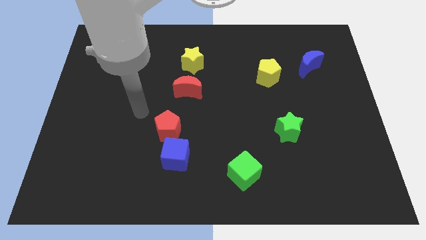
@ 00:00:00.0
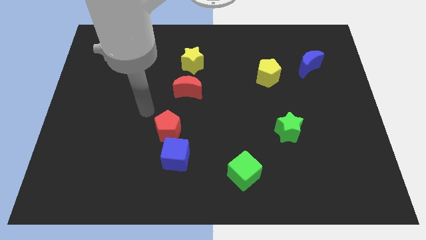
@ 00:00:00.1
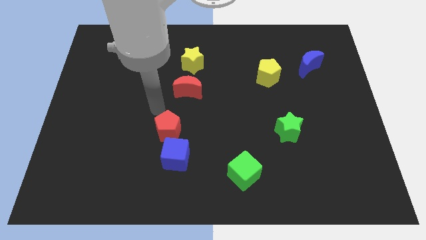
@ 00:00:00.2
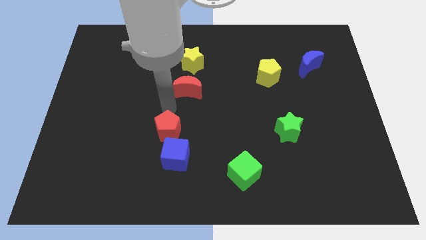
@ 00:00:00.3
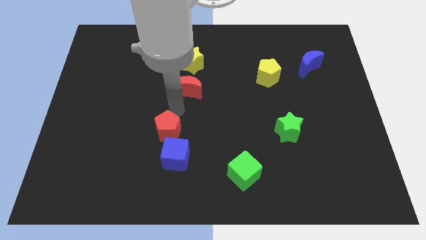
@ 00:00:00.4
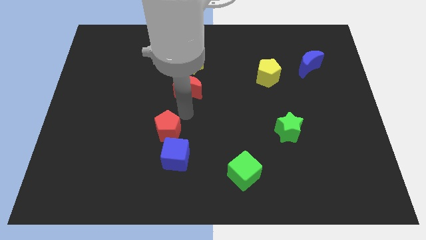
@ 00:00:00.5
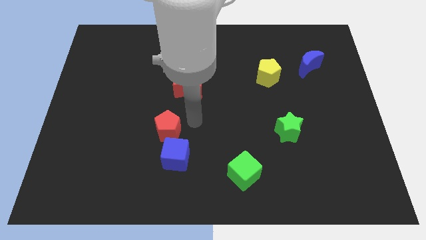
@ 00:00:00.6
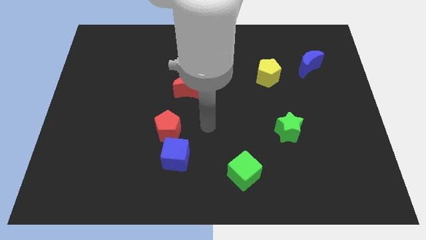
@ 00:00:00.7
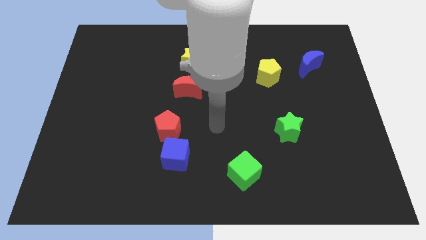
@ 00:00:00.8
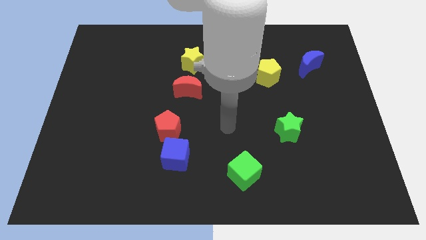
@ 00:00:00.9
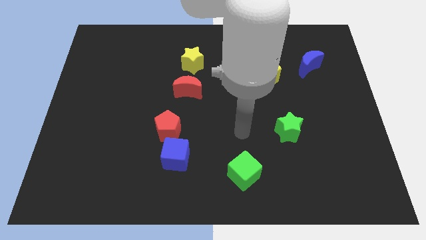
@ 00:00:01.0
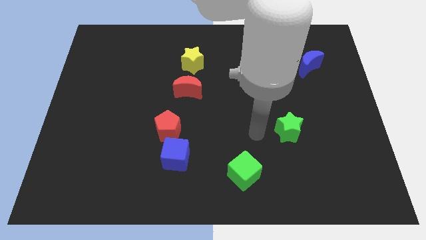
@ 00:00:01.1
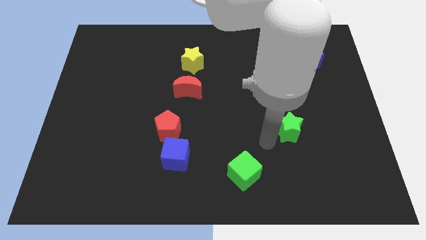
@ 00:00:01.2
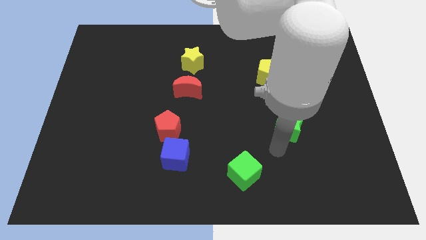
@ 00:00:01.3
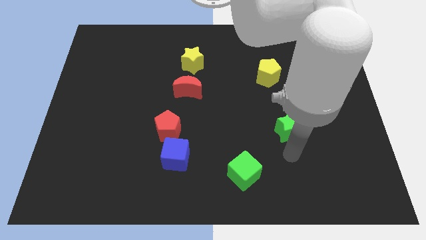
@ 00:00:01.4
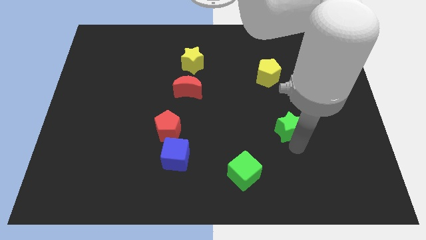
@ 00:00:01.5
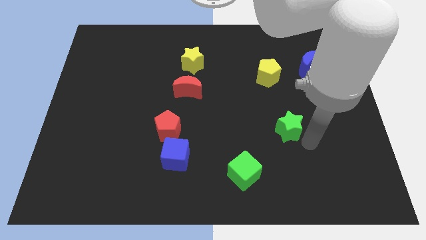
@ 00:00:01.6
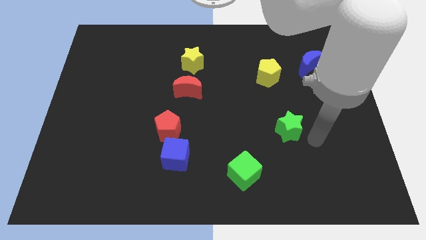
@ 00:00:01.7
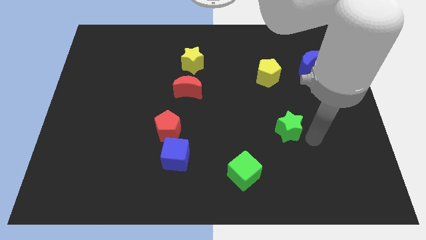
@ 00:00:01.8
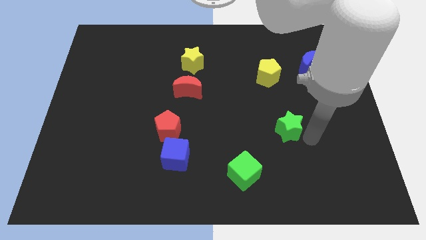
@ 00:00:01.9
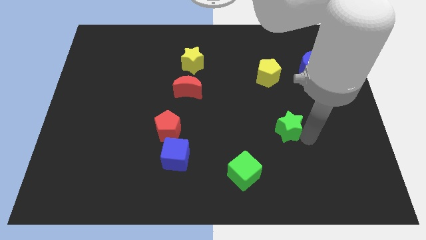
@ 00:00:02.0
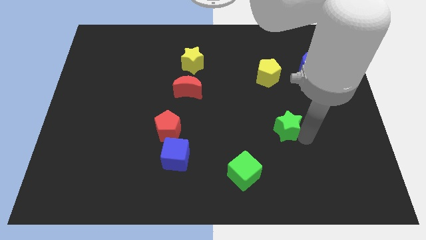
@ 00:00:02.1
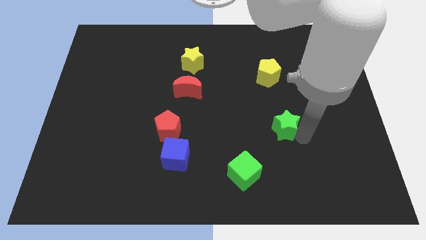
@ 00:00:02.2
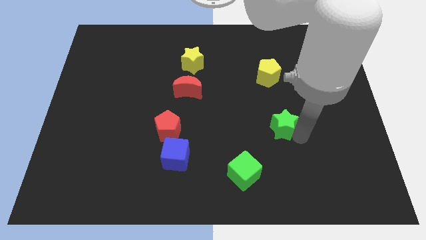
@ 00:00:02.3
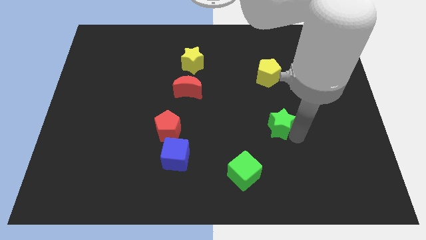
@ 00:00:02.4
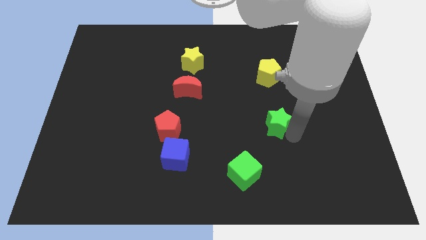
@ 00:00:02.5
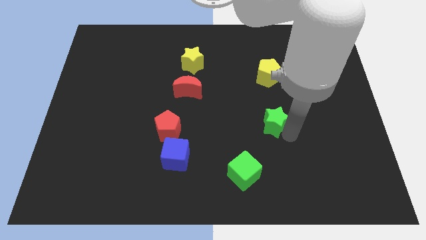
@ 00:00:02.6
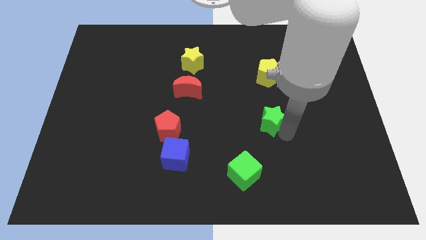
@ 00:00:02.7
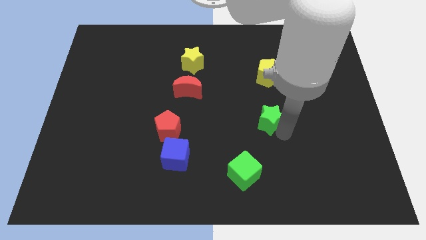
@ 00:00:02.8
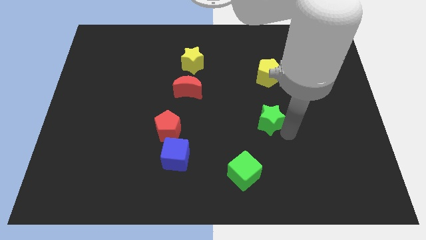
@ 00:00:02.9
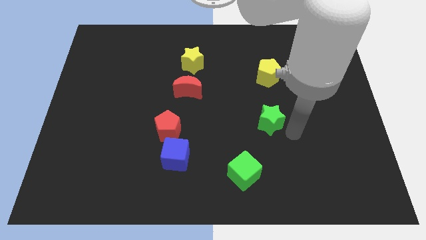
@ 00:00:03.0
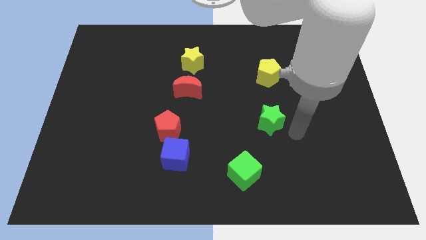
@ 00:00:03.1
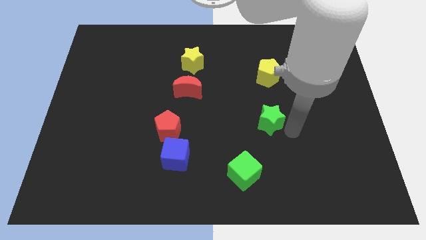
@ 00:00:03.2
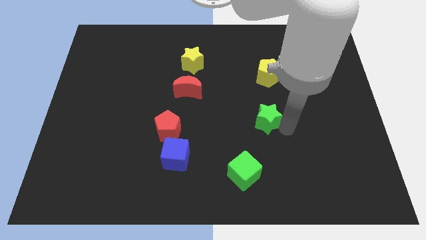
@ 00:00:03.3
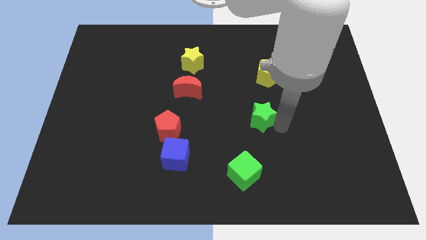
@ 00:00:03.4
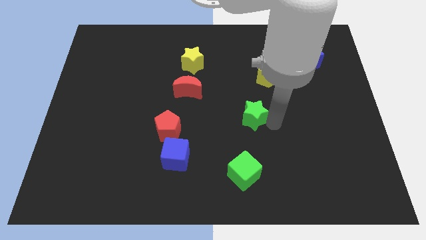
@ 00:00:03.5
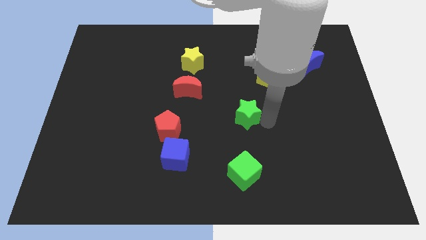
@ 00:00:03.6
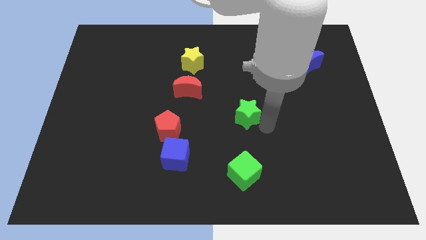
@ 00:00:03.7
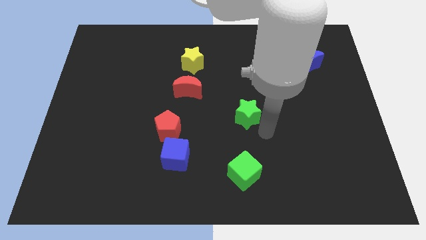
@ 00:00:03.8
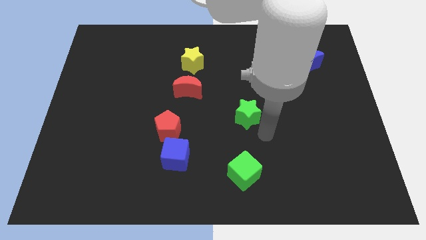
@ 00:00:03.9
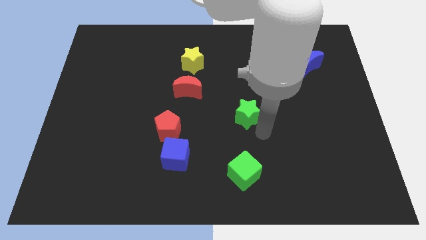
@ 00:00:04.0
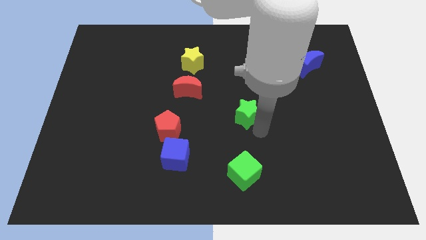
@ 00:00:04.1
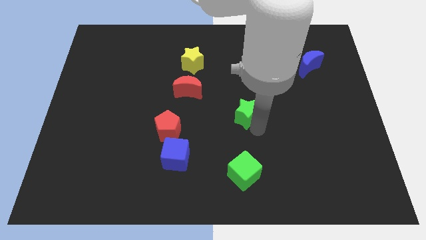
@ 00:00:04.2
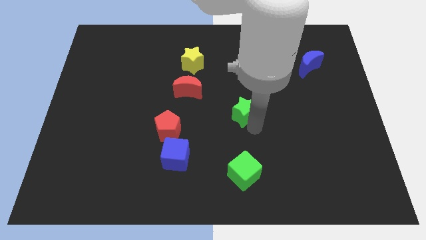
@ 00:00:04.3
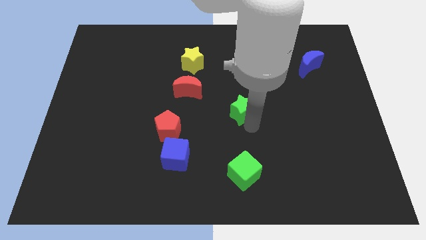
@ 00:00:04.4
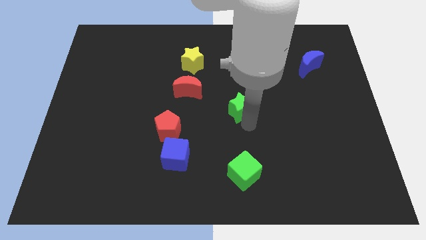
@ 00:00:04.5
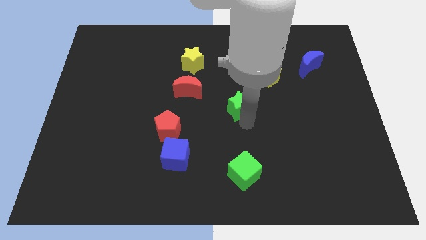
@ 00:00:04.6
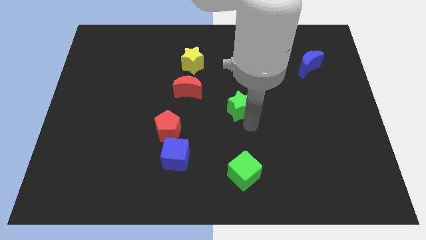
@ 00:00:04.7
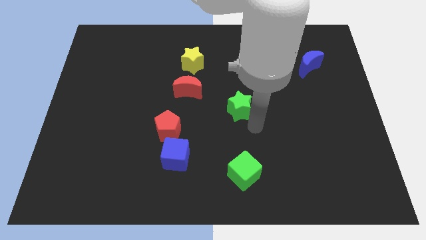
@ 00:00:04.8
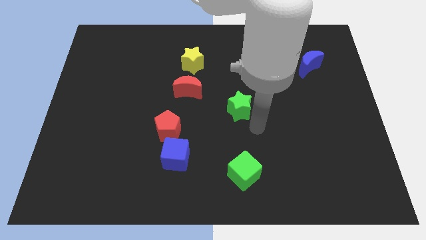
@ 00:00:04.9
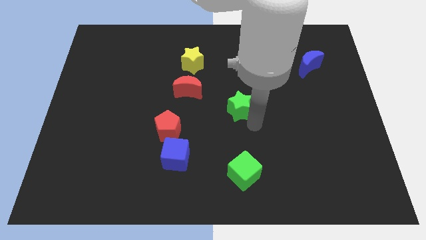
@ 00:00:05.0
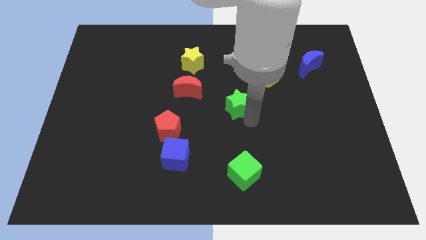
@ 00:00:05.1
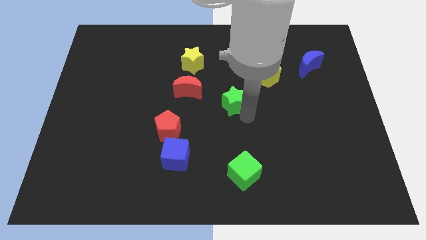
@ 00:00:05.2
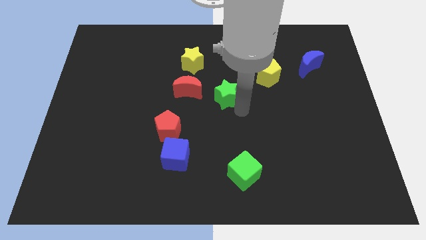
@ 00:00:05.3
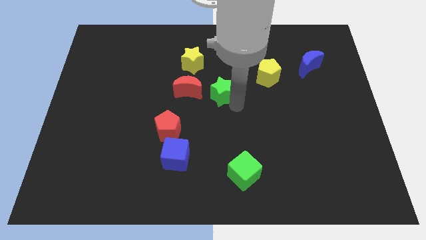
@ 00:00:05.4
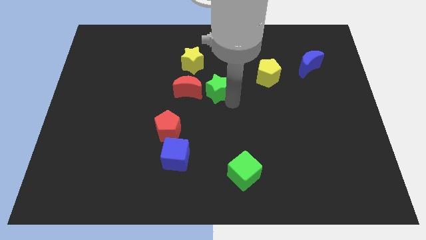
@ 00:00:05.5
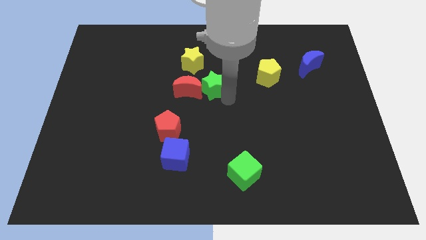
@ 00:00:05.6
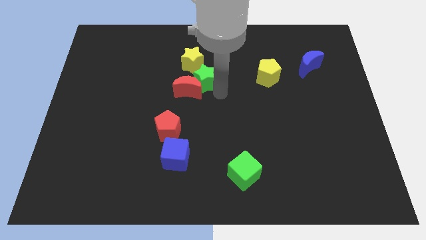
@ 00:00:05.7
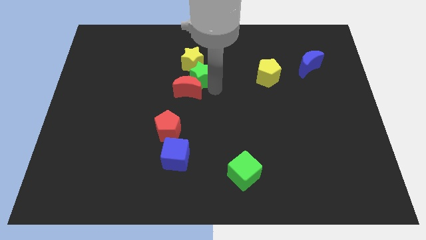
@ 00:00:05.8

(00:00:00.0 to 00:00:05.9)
slide the green star close to the yellow star

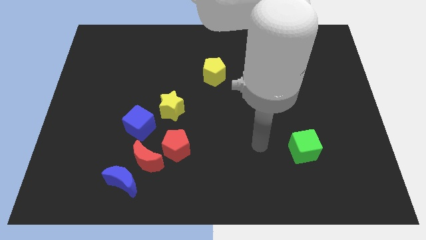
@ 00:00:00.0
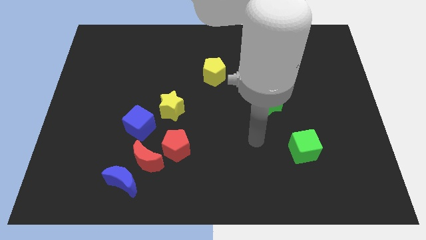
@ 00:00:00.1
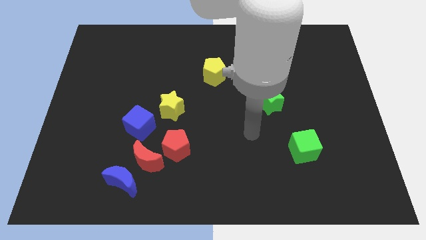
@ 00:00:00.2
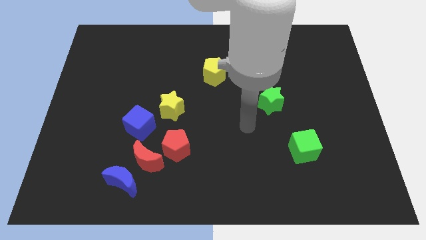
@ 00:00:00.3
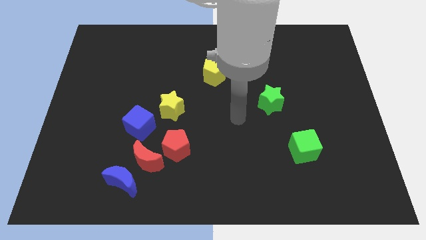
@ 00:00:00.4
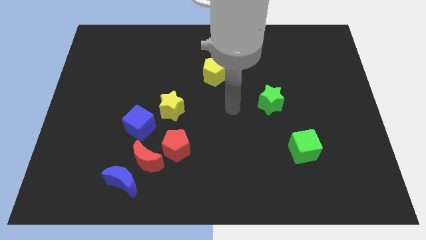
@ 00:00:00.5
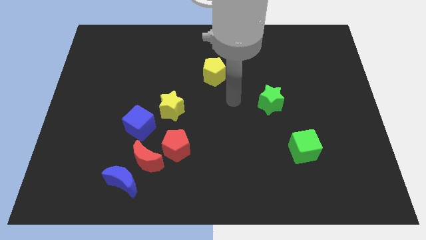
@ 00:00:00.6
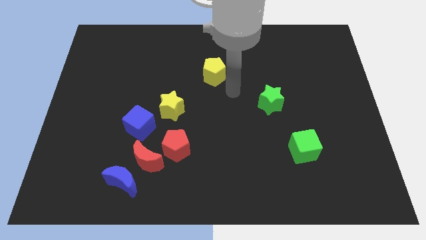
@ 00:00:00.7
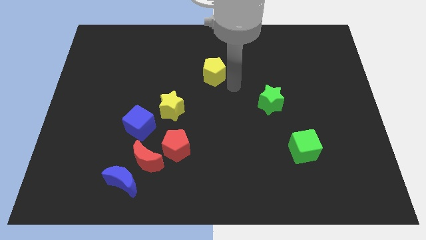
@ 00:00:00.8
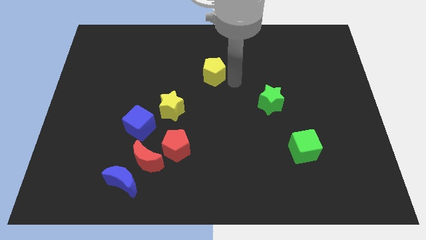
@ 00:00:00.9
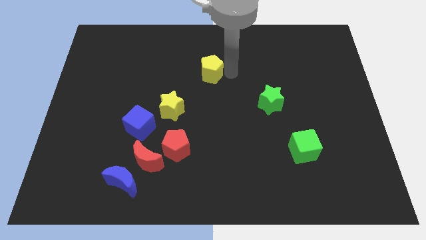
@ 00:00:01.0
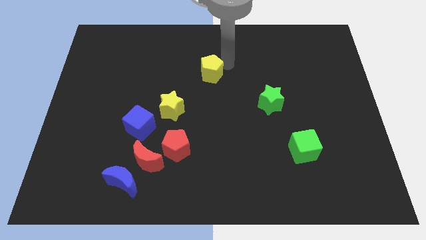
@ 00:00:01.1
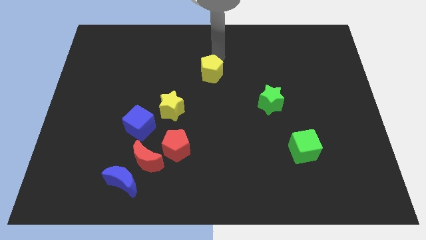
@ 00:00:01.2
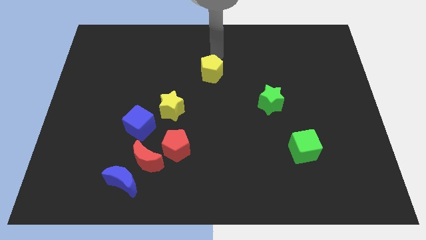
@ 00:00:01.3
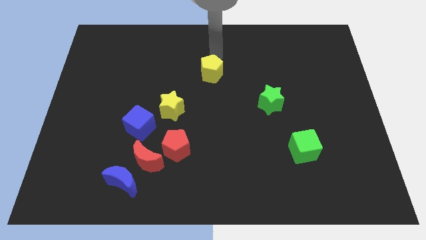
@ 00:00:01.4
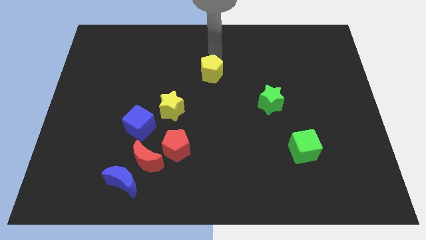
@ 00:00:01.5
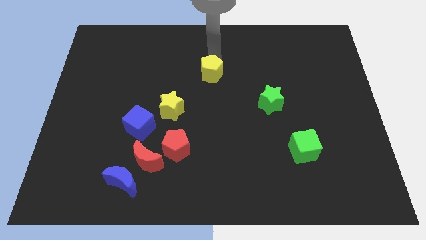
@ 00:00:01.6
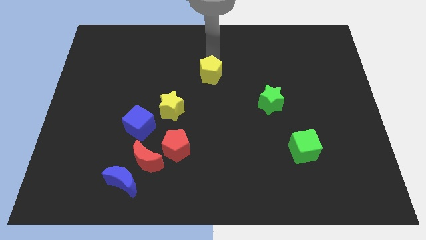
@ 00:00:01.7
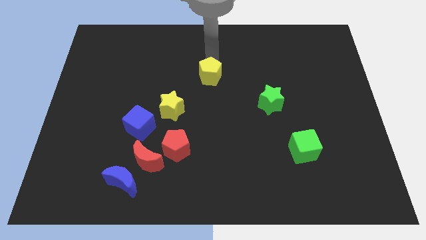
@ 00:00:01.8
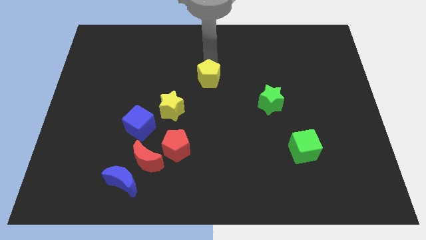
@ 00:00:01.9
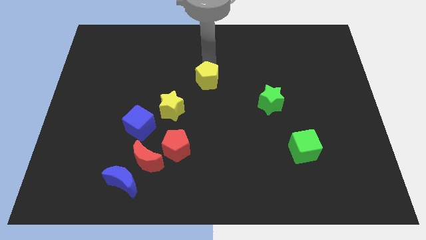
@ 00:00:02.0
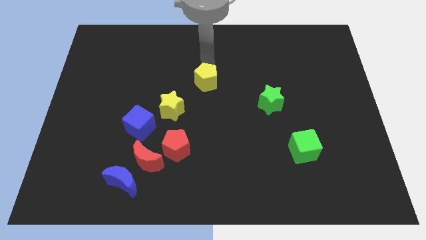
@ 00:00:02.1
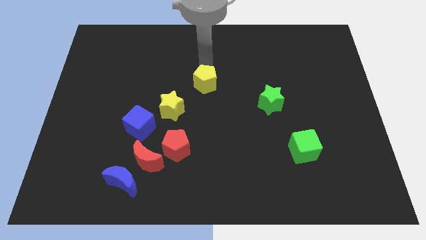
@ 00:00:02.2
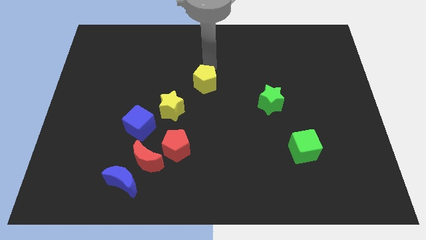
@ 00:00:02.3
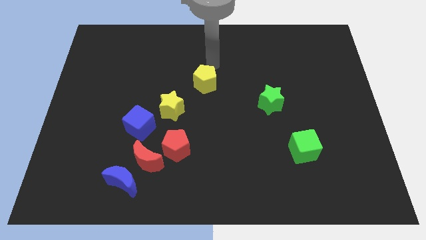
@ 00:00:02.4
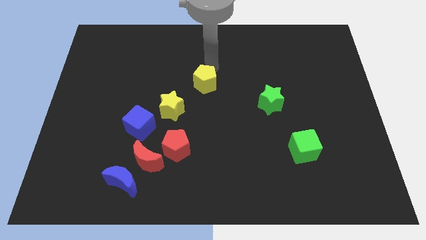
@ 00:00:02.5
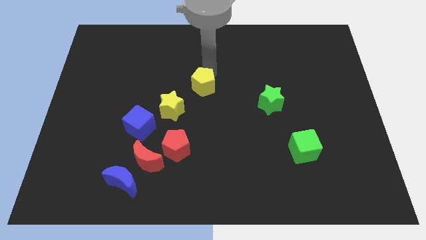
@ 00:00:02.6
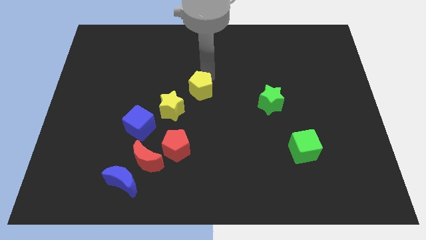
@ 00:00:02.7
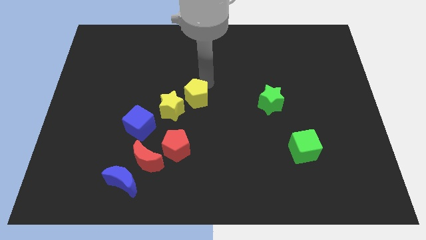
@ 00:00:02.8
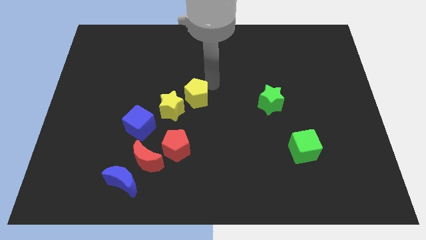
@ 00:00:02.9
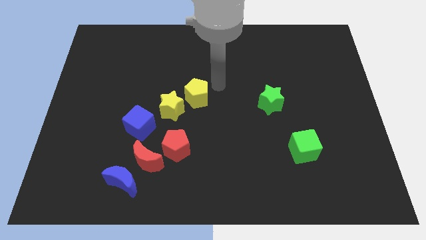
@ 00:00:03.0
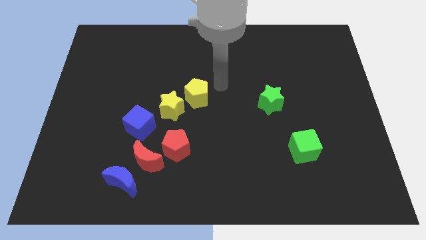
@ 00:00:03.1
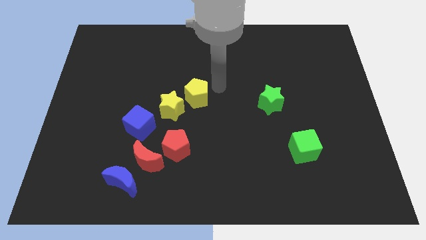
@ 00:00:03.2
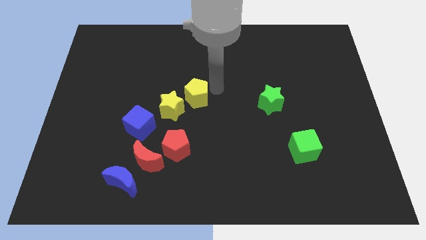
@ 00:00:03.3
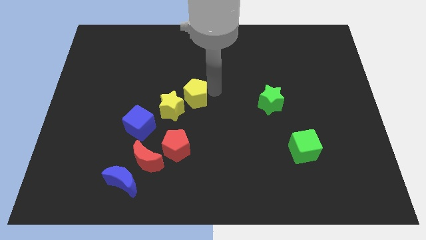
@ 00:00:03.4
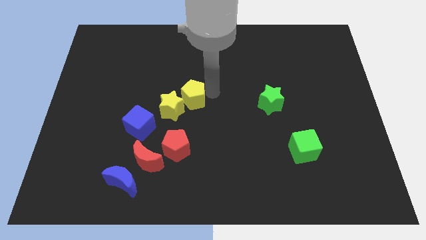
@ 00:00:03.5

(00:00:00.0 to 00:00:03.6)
put the yellow pentagon towards the yellow star
